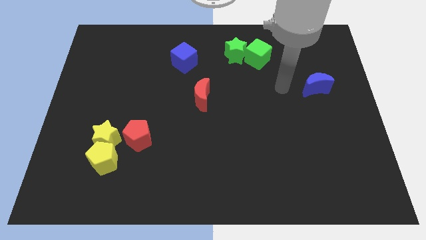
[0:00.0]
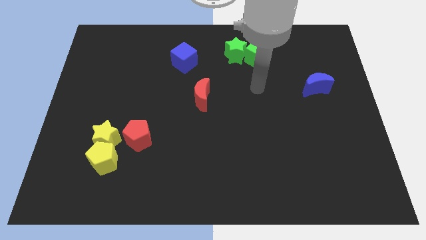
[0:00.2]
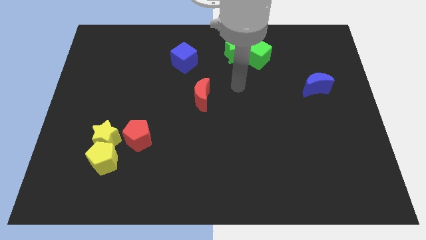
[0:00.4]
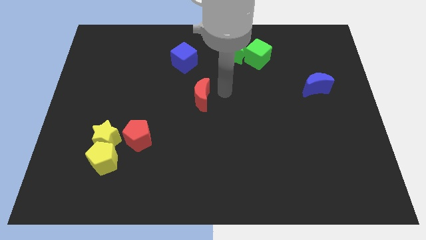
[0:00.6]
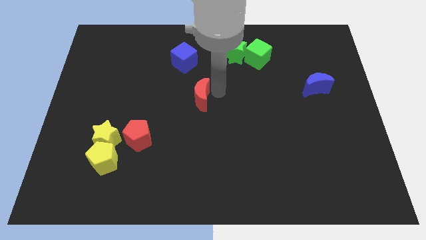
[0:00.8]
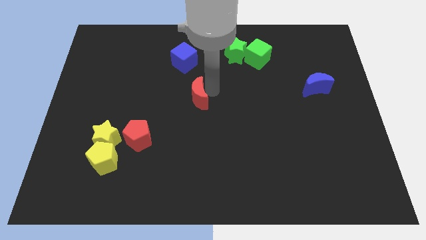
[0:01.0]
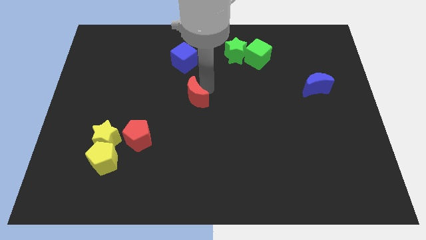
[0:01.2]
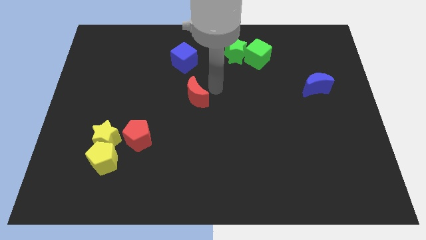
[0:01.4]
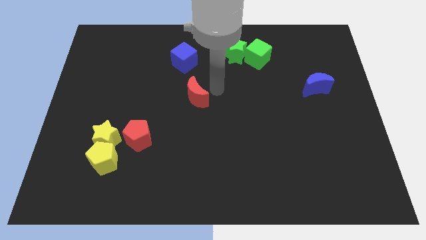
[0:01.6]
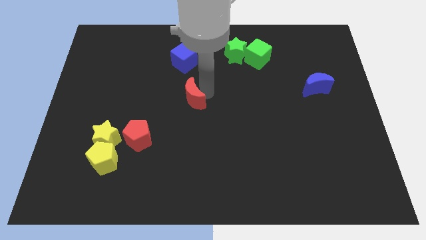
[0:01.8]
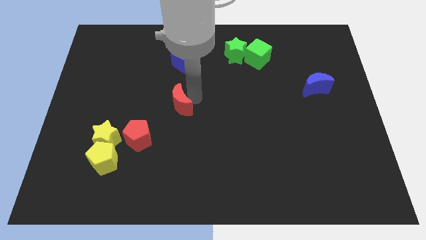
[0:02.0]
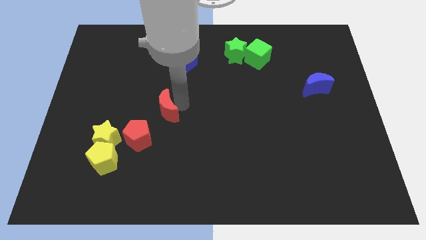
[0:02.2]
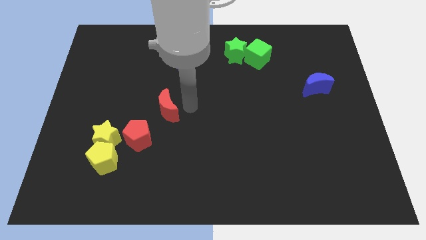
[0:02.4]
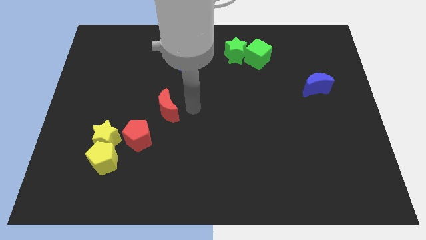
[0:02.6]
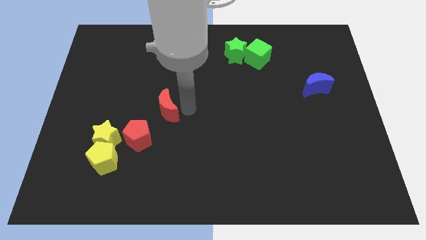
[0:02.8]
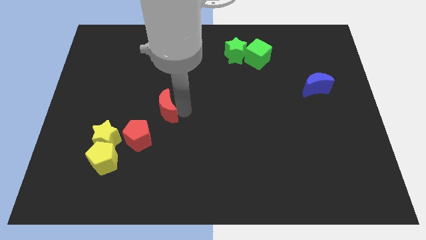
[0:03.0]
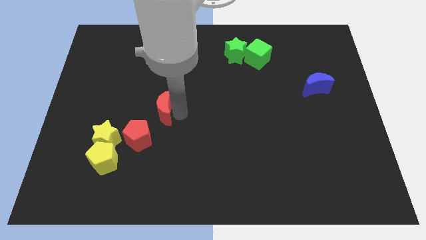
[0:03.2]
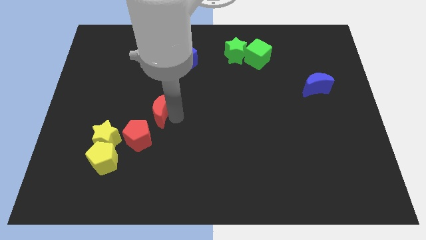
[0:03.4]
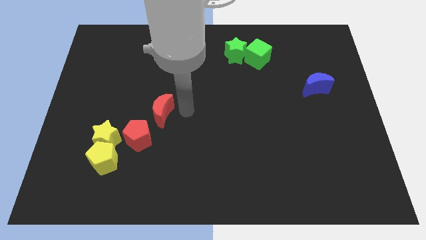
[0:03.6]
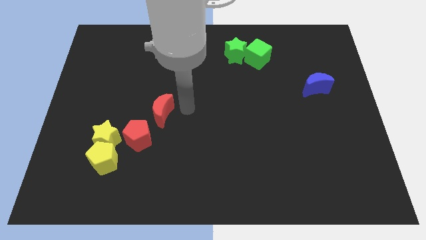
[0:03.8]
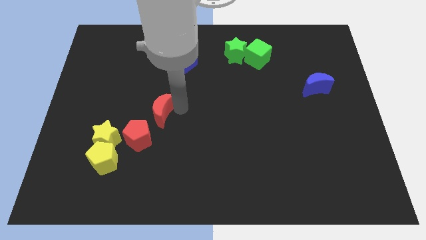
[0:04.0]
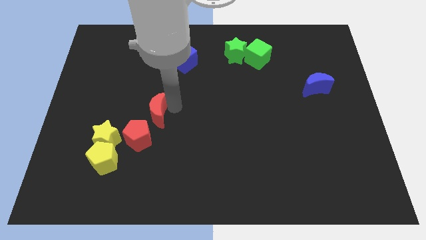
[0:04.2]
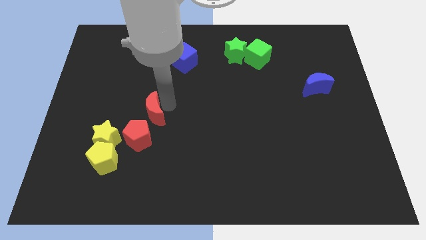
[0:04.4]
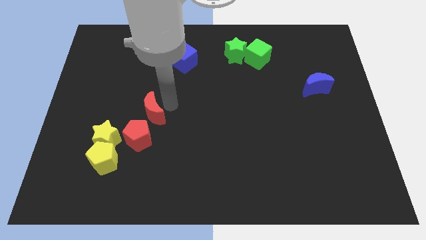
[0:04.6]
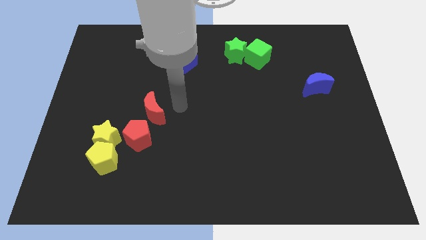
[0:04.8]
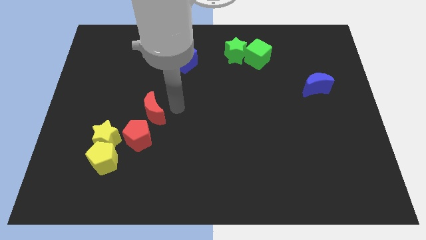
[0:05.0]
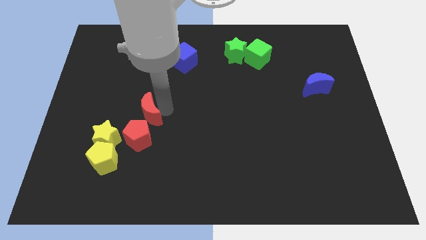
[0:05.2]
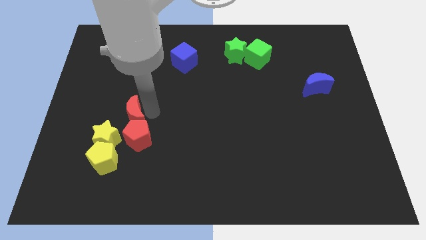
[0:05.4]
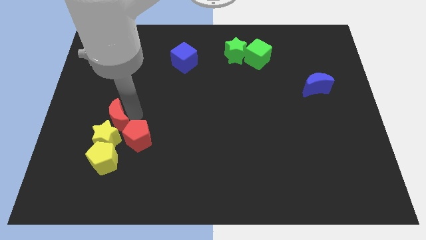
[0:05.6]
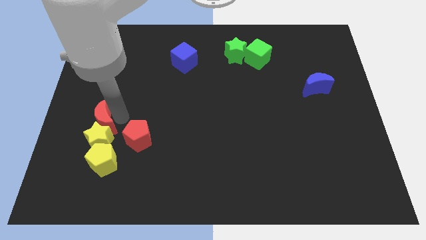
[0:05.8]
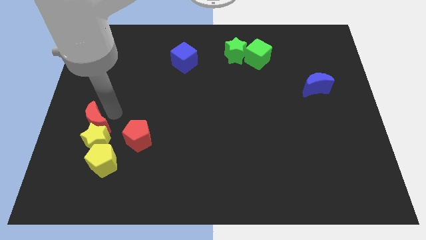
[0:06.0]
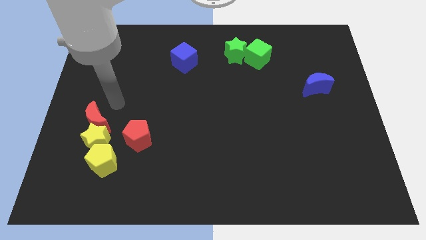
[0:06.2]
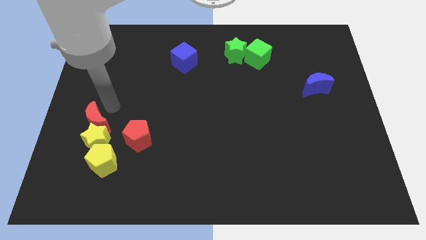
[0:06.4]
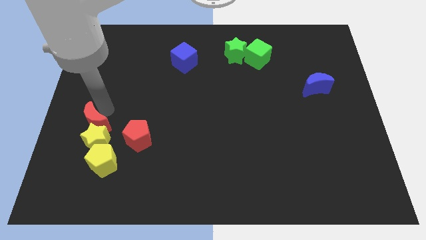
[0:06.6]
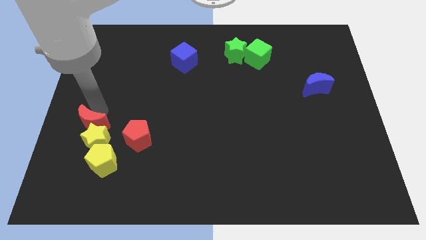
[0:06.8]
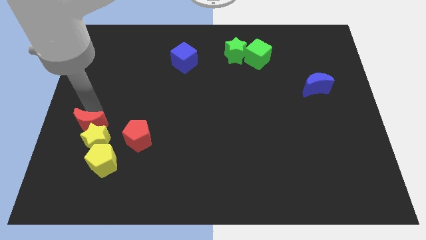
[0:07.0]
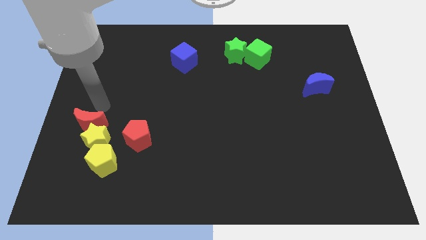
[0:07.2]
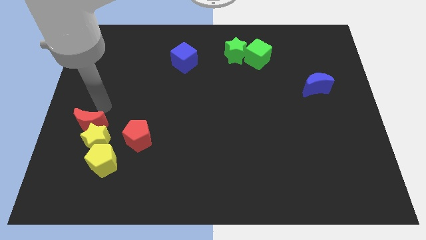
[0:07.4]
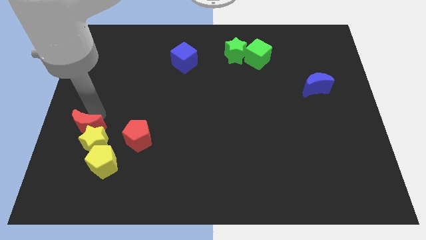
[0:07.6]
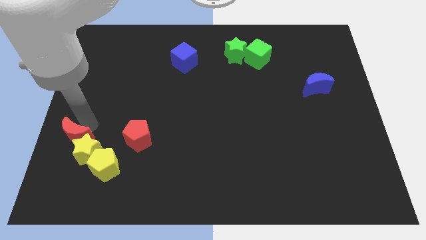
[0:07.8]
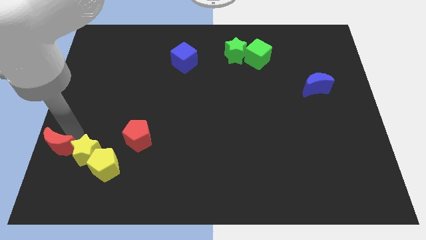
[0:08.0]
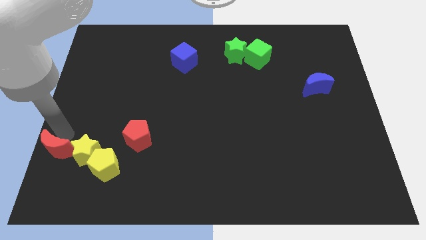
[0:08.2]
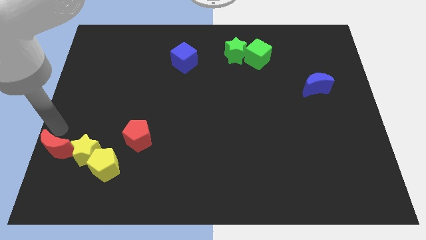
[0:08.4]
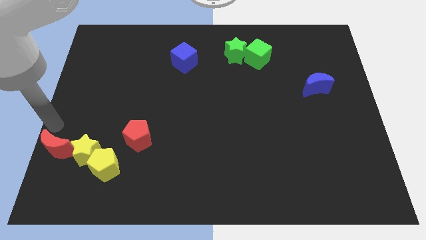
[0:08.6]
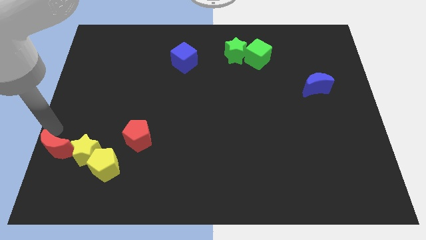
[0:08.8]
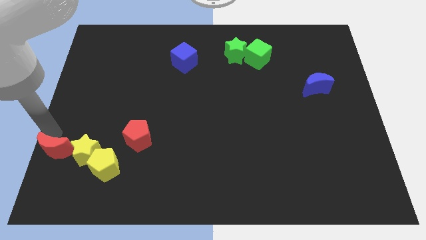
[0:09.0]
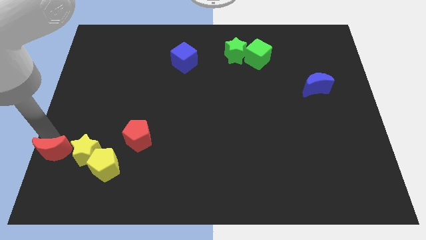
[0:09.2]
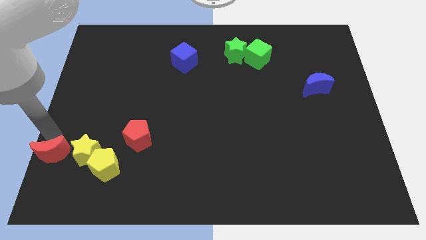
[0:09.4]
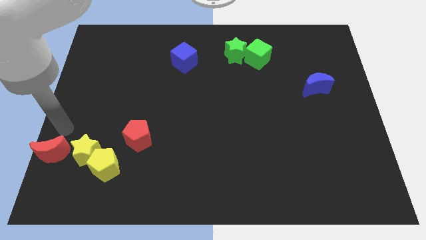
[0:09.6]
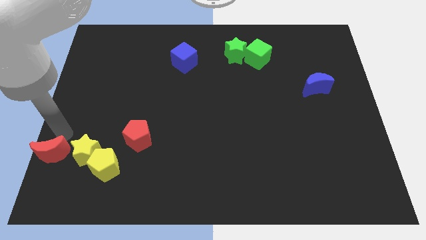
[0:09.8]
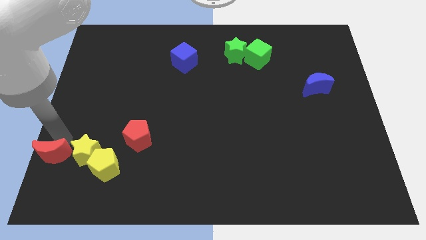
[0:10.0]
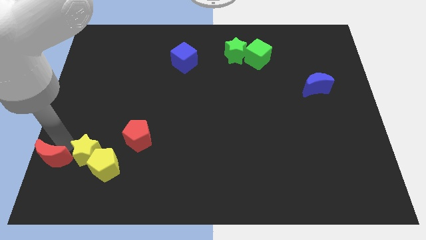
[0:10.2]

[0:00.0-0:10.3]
move the red moon to the bottom left corner

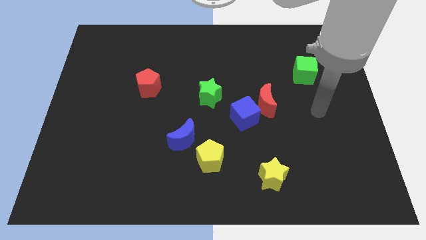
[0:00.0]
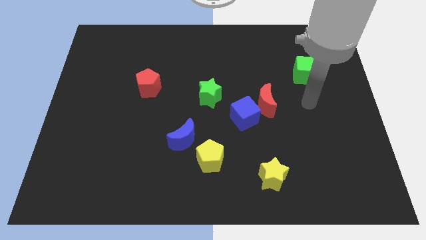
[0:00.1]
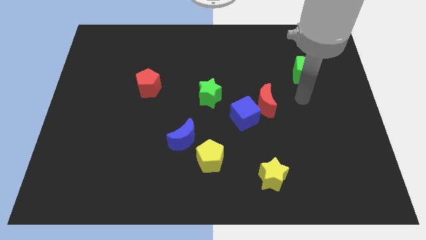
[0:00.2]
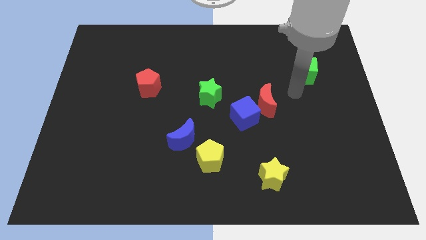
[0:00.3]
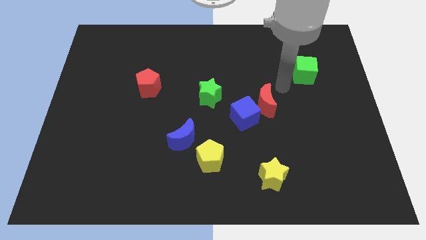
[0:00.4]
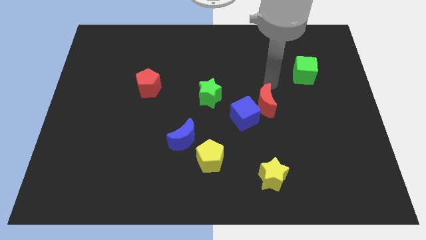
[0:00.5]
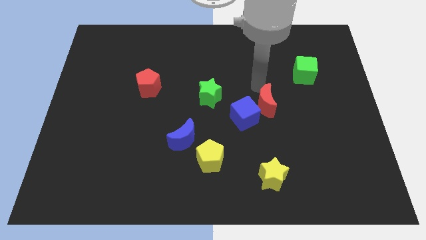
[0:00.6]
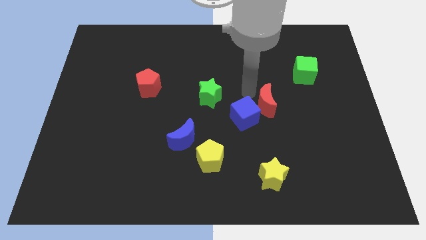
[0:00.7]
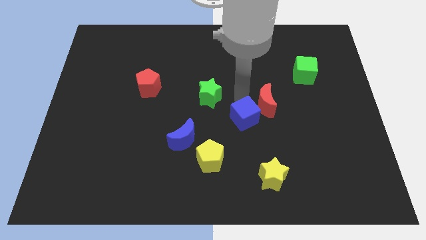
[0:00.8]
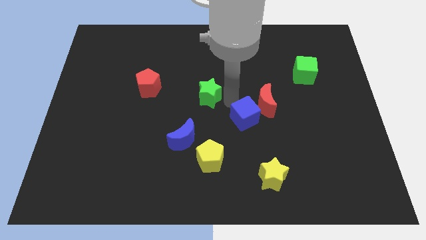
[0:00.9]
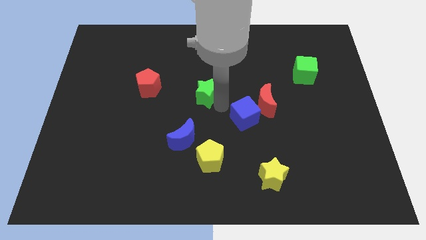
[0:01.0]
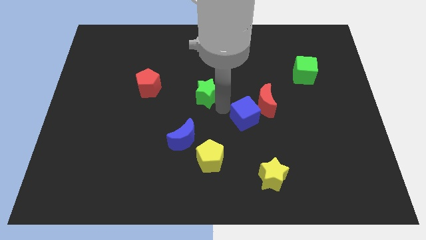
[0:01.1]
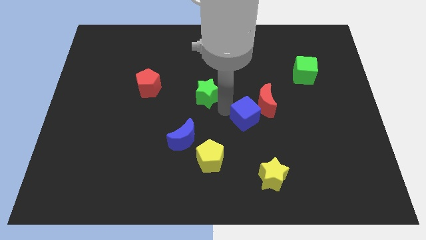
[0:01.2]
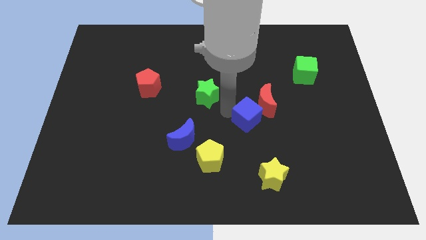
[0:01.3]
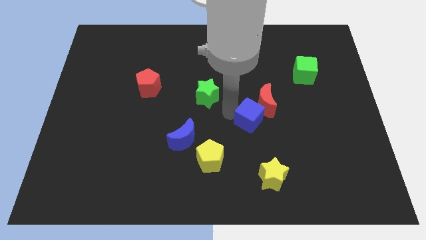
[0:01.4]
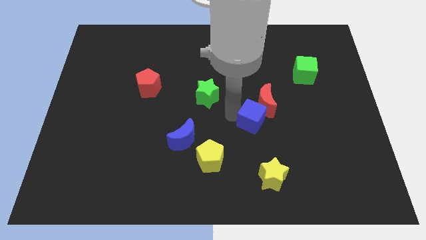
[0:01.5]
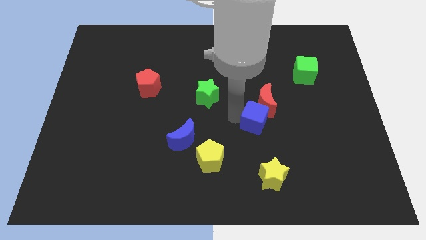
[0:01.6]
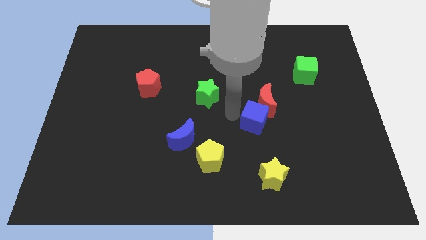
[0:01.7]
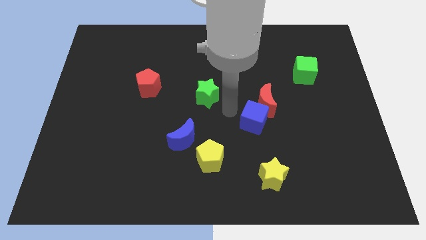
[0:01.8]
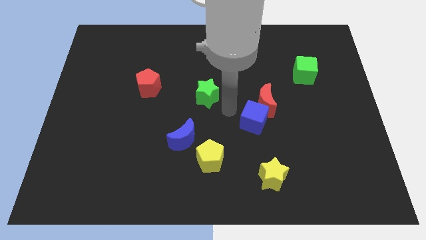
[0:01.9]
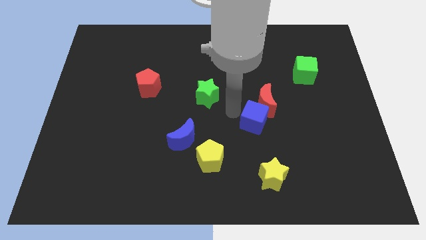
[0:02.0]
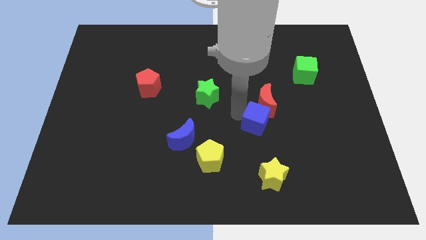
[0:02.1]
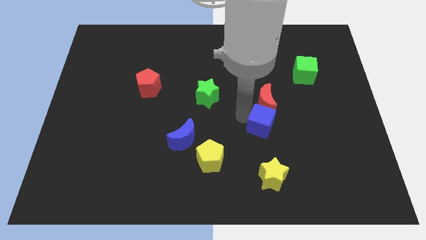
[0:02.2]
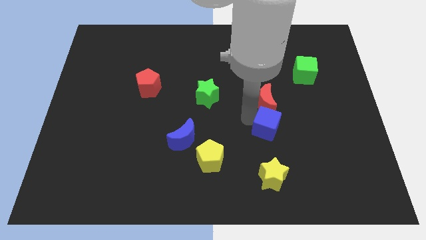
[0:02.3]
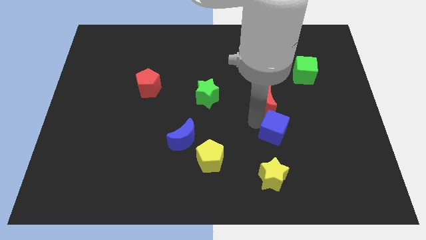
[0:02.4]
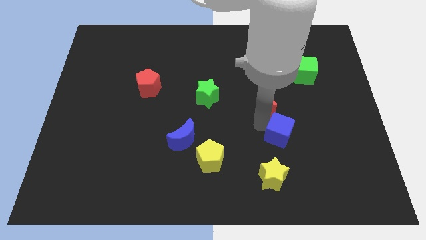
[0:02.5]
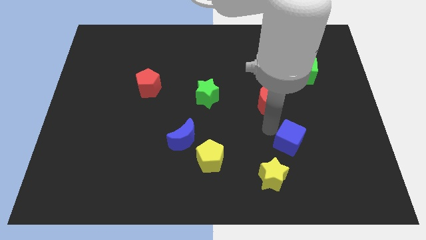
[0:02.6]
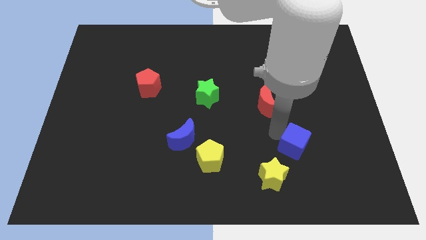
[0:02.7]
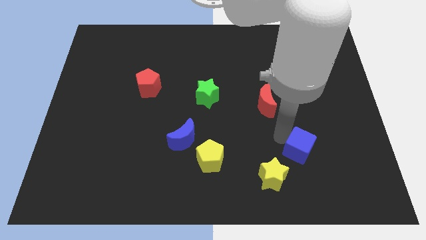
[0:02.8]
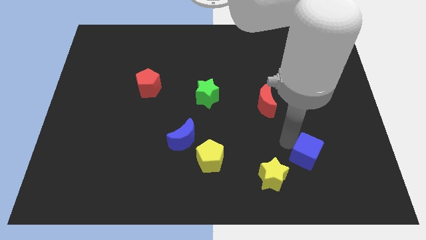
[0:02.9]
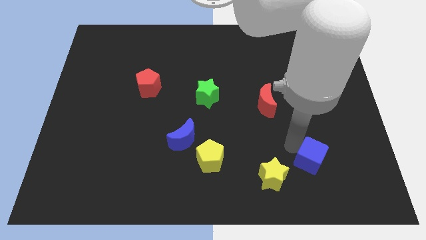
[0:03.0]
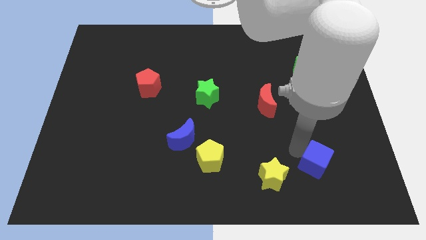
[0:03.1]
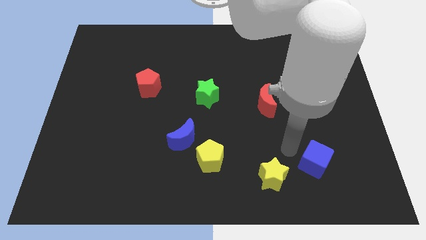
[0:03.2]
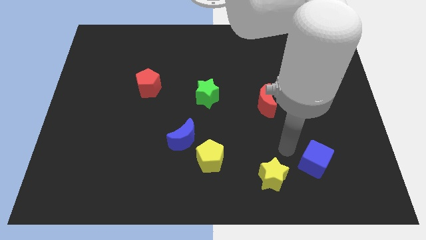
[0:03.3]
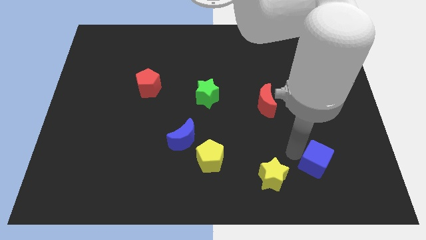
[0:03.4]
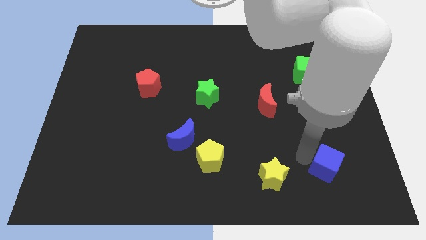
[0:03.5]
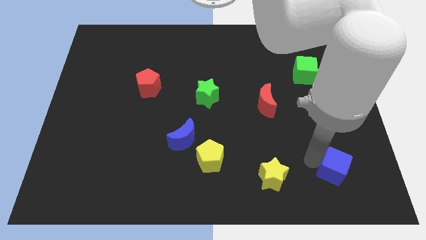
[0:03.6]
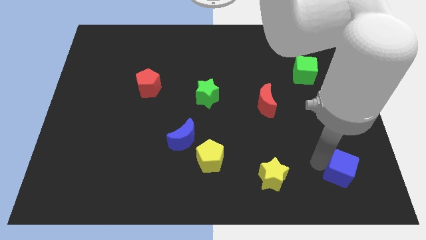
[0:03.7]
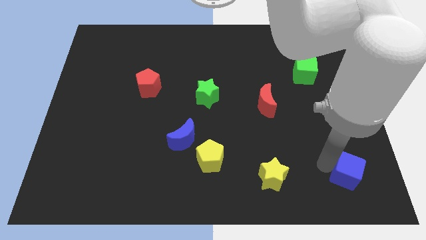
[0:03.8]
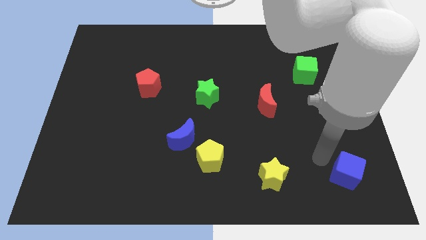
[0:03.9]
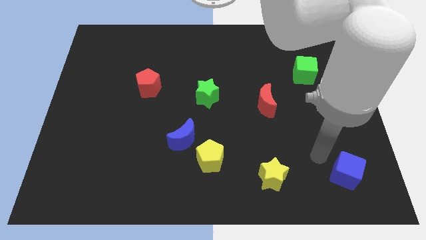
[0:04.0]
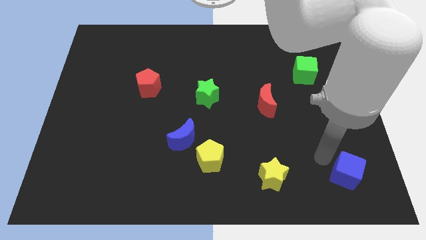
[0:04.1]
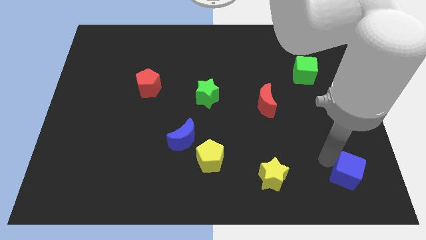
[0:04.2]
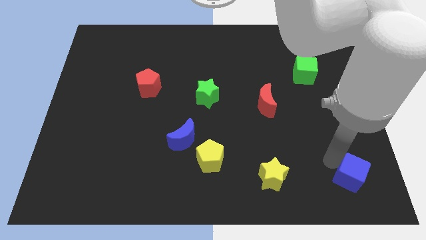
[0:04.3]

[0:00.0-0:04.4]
slide the blue cube to the bottom right of the board
